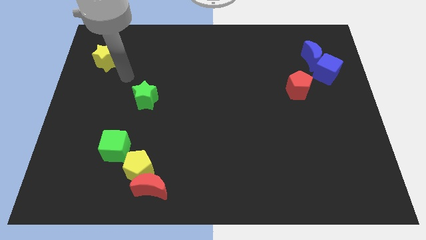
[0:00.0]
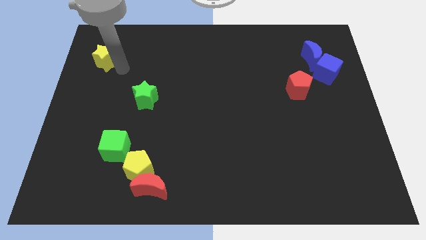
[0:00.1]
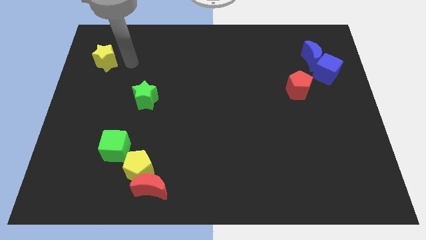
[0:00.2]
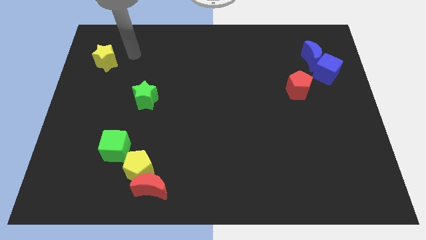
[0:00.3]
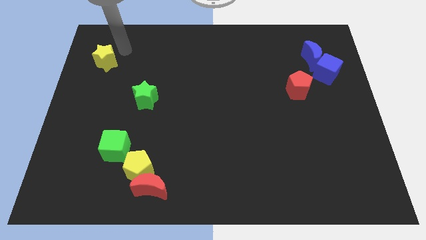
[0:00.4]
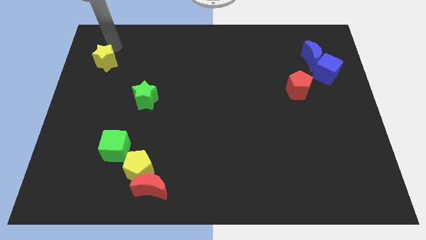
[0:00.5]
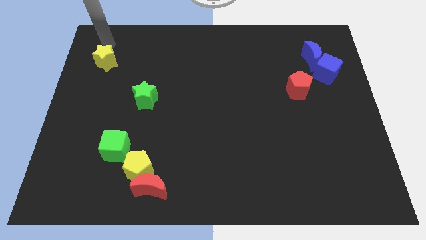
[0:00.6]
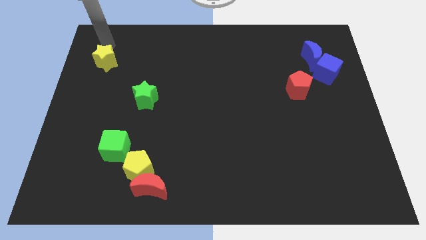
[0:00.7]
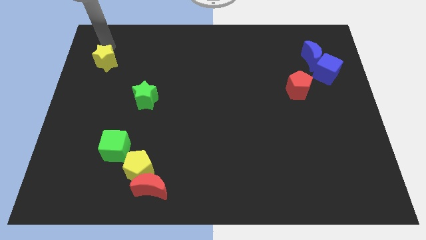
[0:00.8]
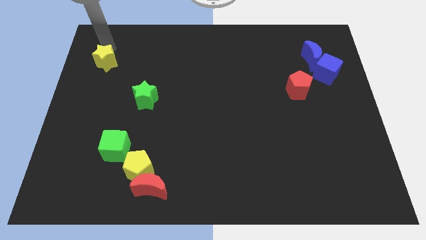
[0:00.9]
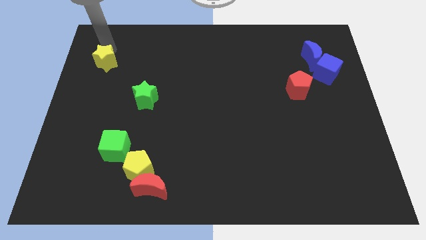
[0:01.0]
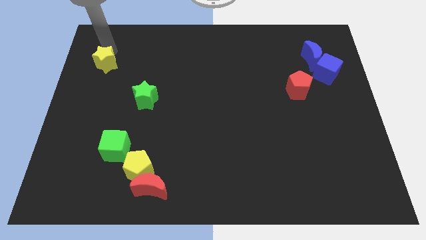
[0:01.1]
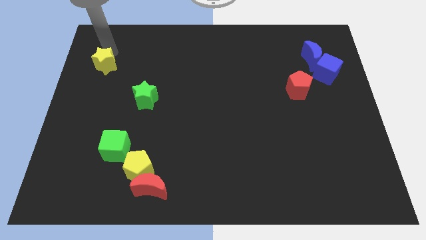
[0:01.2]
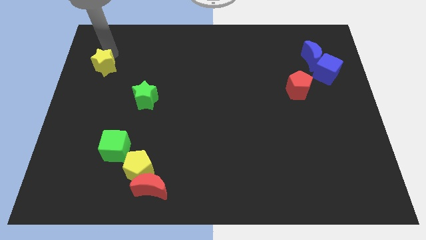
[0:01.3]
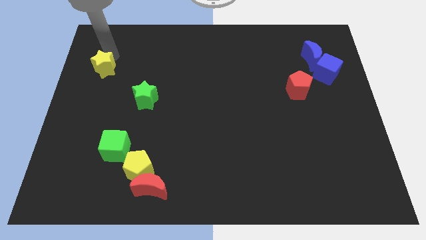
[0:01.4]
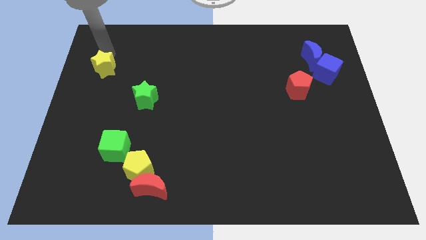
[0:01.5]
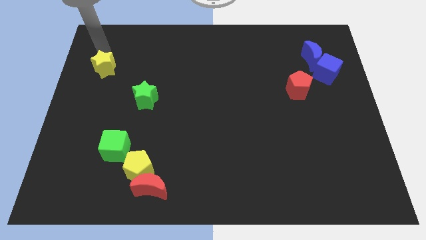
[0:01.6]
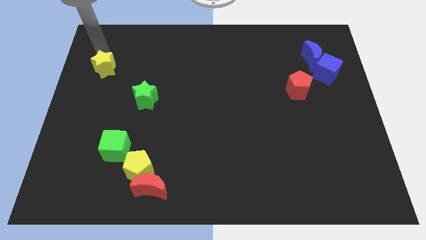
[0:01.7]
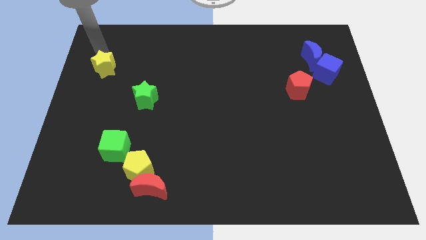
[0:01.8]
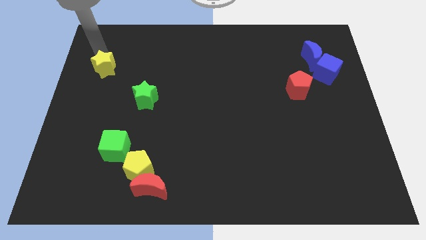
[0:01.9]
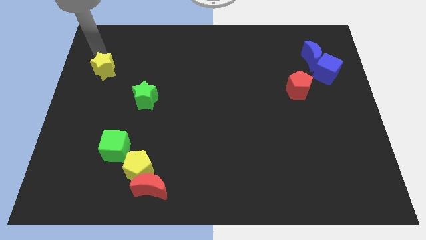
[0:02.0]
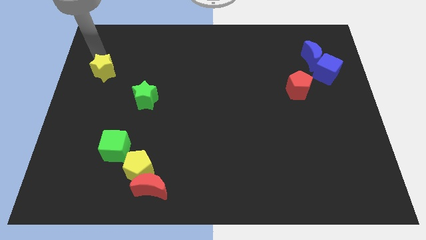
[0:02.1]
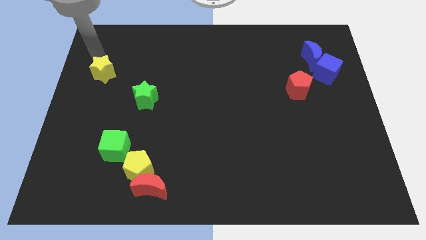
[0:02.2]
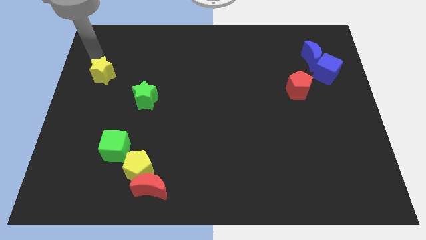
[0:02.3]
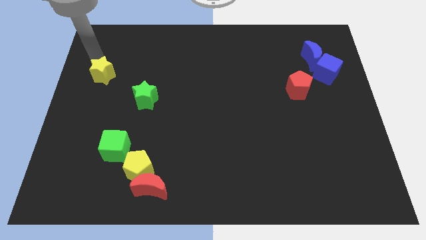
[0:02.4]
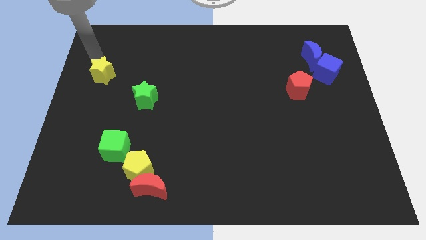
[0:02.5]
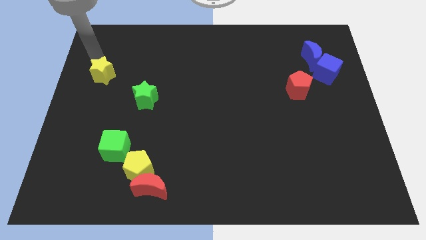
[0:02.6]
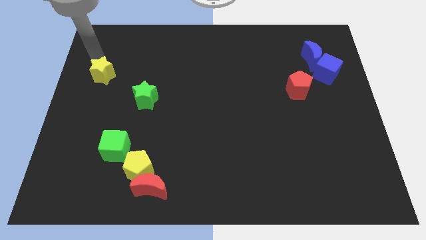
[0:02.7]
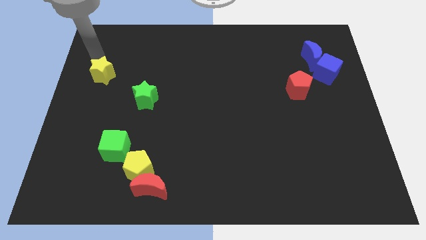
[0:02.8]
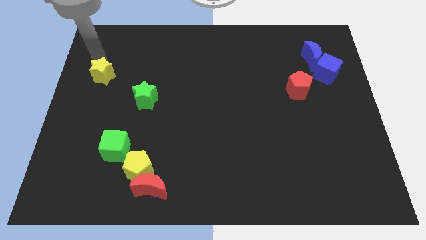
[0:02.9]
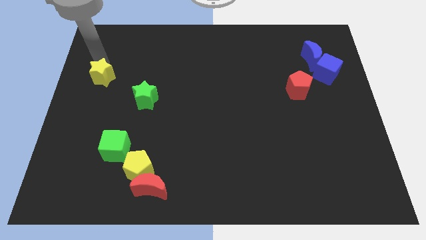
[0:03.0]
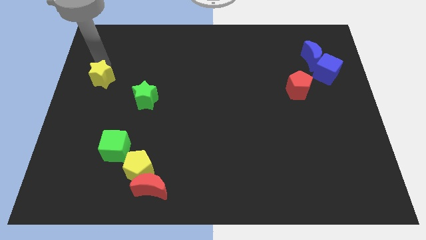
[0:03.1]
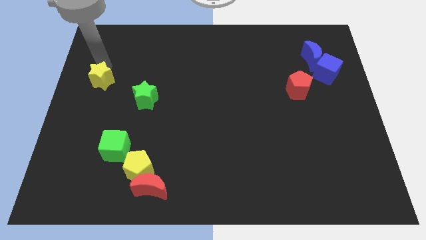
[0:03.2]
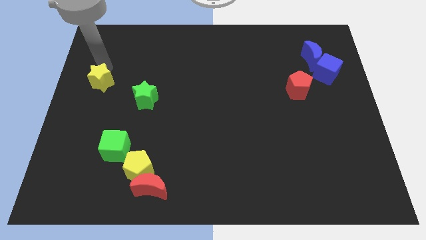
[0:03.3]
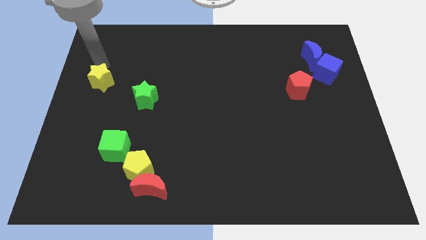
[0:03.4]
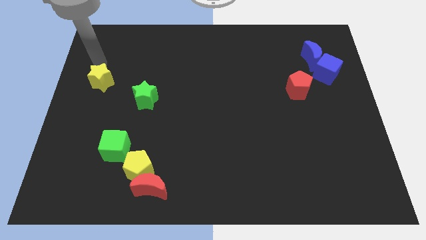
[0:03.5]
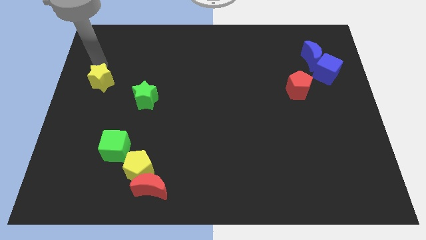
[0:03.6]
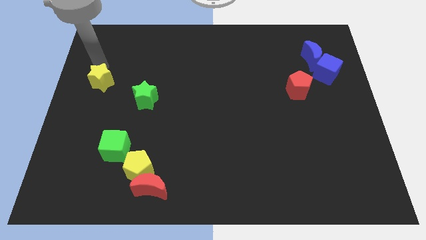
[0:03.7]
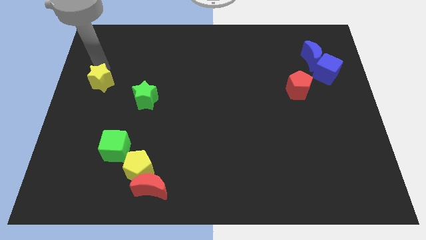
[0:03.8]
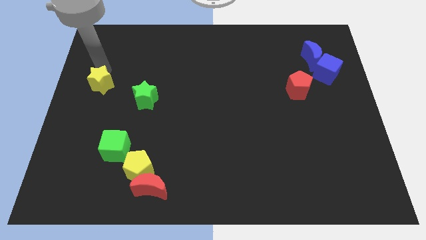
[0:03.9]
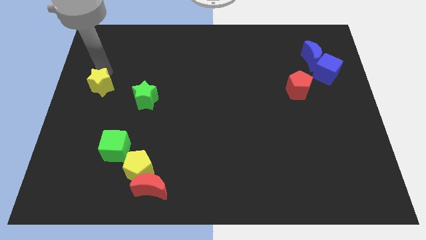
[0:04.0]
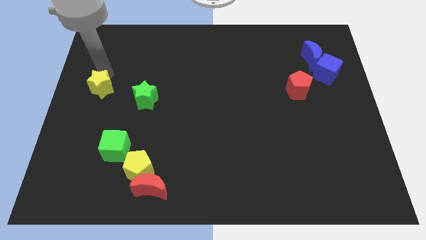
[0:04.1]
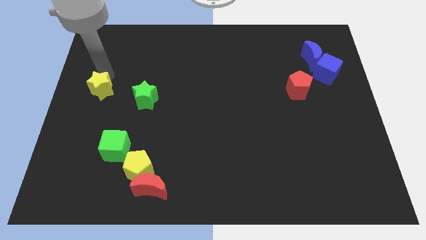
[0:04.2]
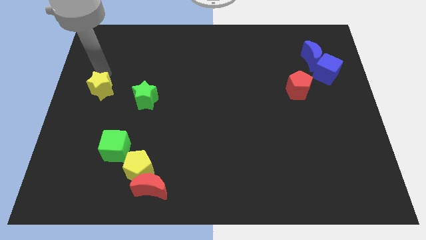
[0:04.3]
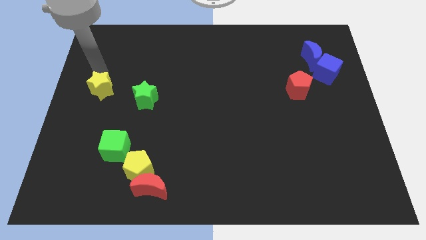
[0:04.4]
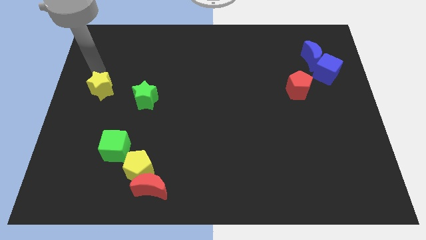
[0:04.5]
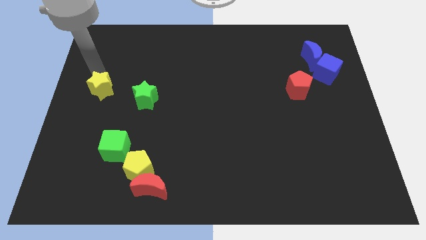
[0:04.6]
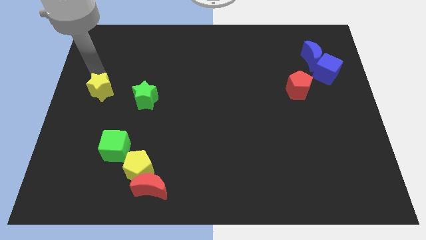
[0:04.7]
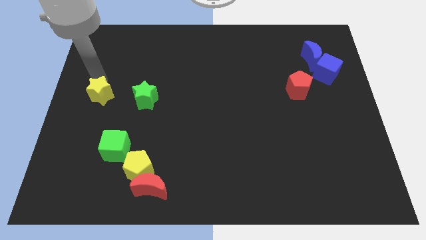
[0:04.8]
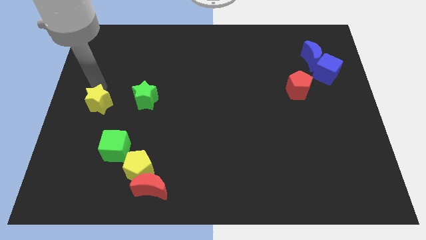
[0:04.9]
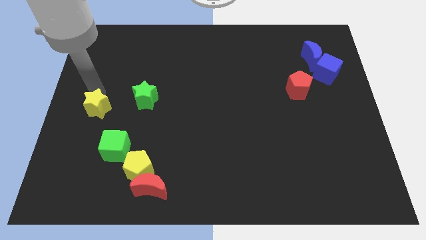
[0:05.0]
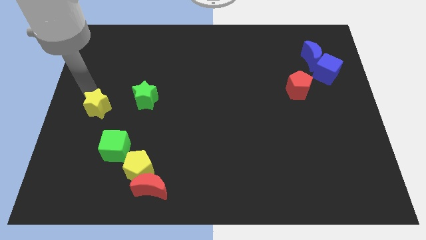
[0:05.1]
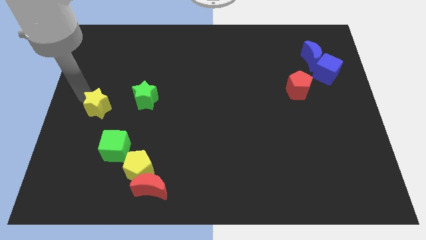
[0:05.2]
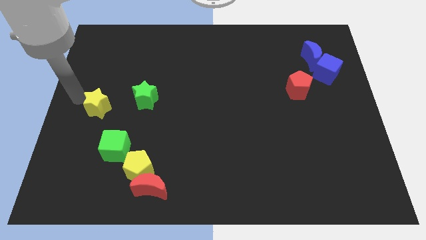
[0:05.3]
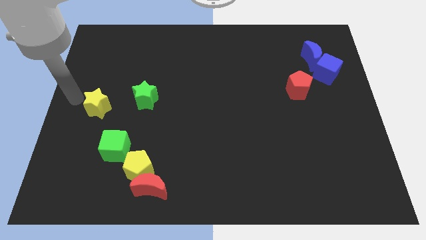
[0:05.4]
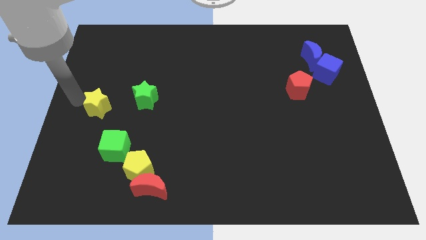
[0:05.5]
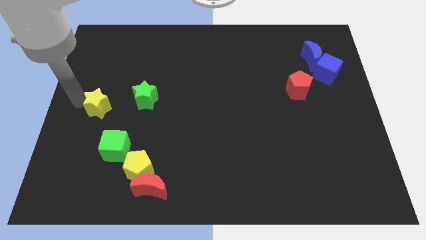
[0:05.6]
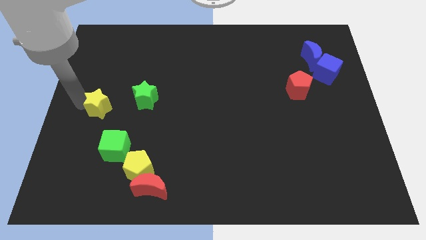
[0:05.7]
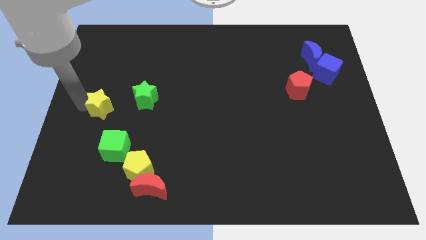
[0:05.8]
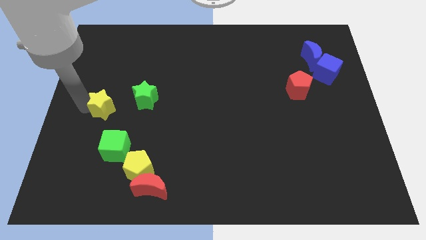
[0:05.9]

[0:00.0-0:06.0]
put the yellow star diagonally down and to the left of the green star

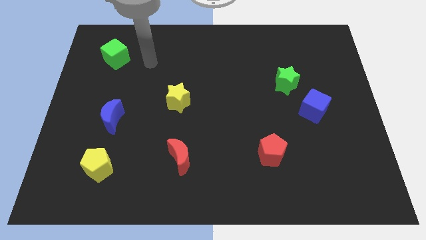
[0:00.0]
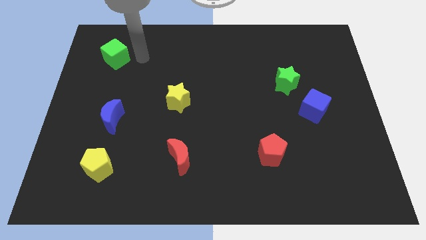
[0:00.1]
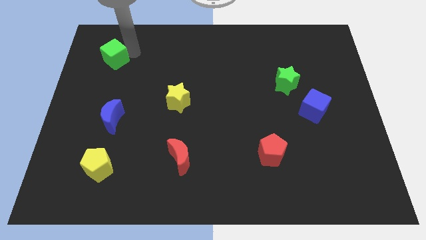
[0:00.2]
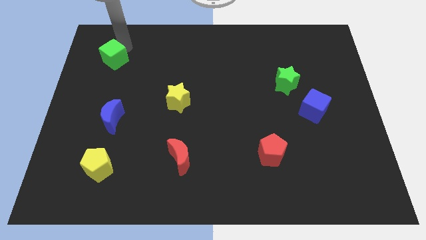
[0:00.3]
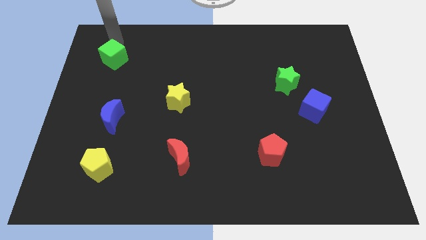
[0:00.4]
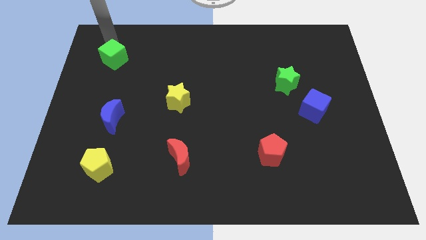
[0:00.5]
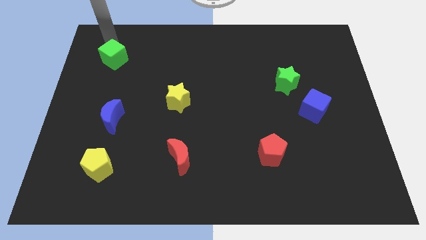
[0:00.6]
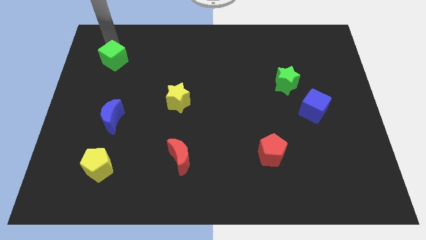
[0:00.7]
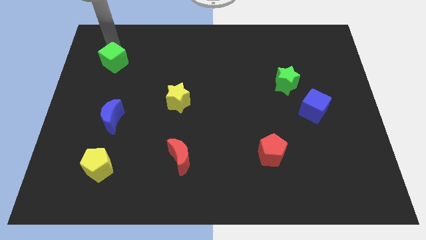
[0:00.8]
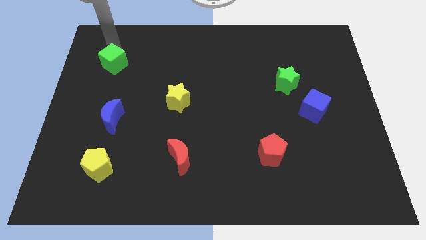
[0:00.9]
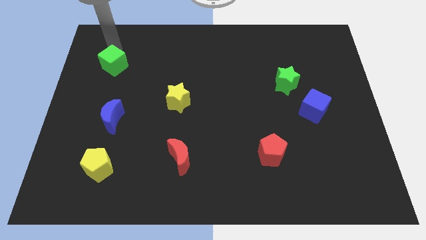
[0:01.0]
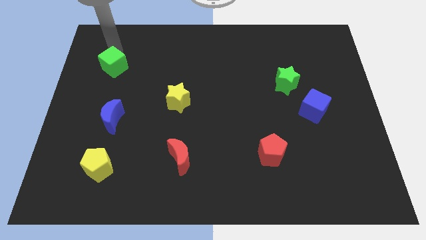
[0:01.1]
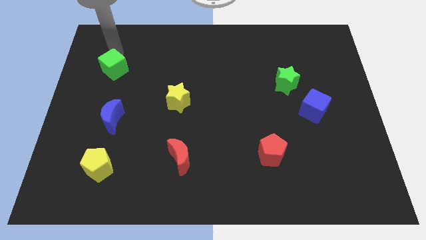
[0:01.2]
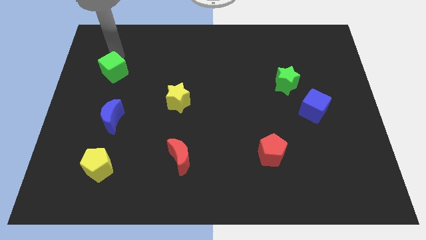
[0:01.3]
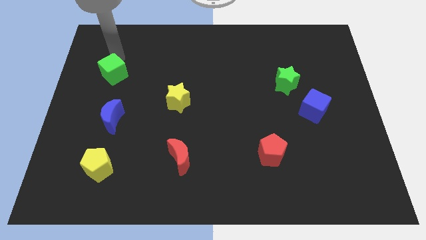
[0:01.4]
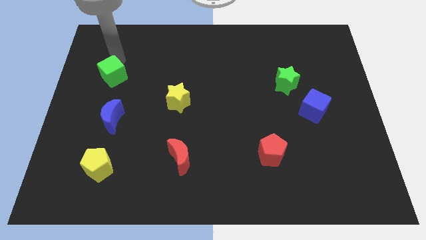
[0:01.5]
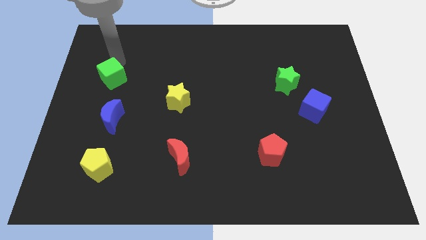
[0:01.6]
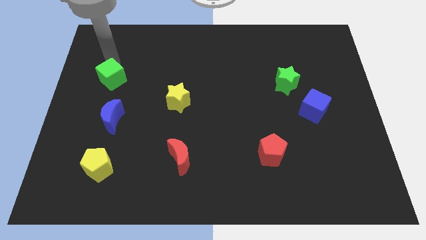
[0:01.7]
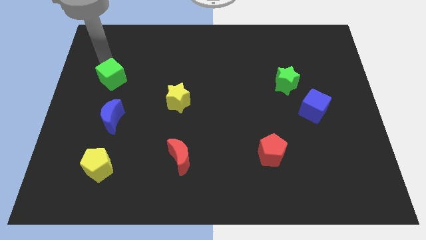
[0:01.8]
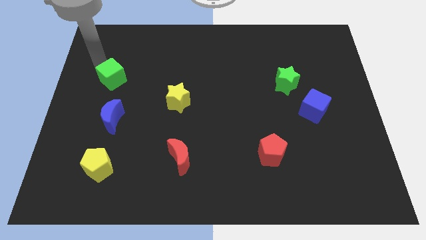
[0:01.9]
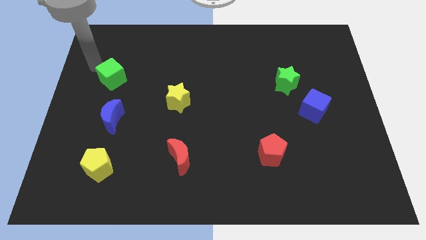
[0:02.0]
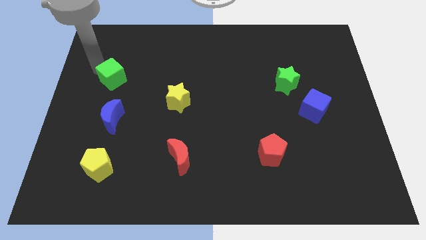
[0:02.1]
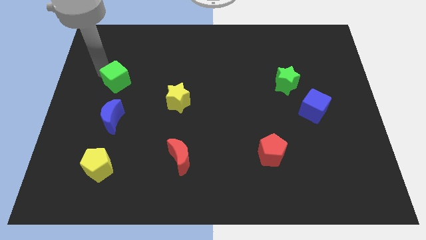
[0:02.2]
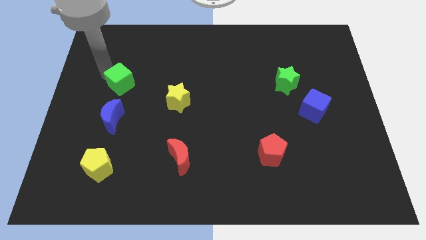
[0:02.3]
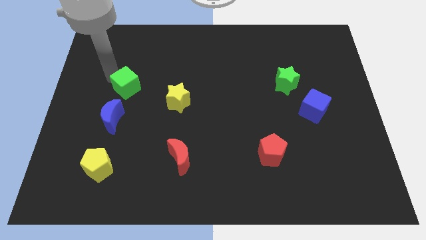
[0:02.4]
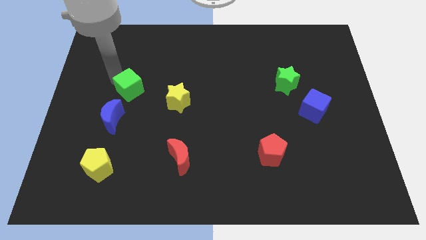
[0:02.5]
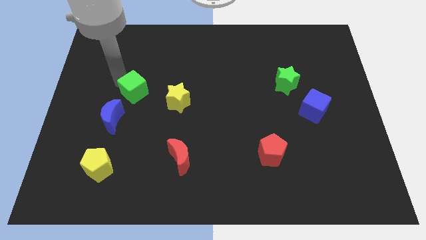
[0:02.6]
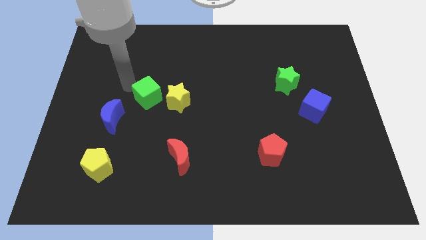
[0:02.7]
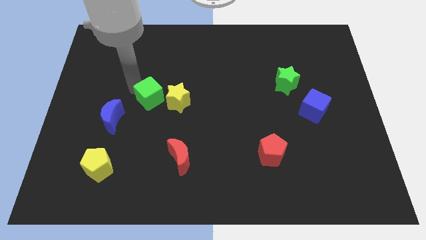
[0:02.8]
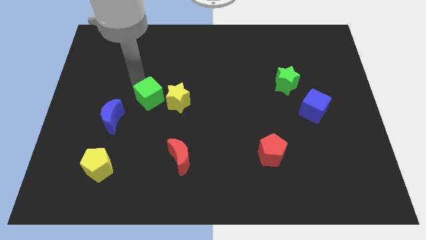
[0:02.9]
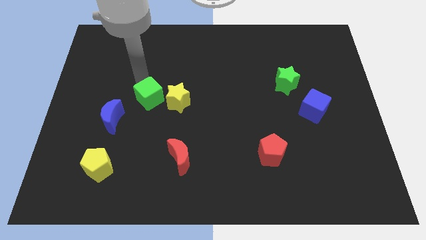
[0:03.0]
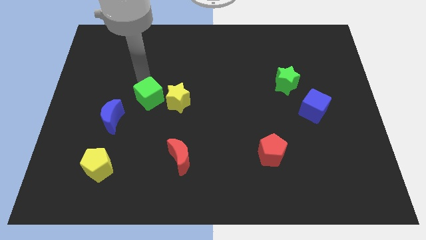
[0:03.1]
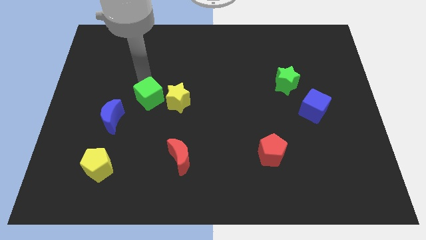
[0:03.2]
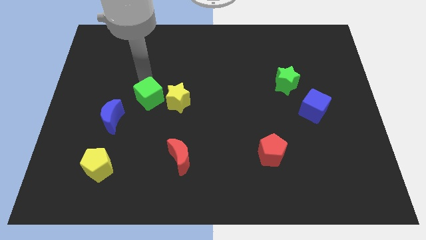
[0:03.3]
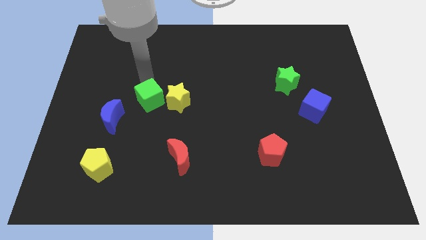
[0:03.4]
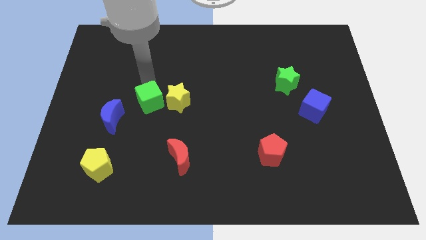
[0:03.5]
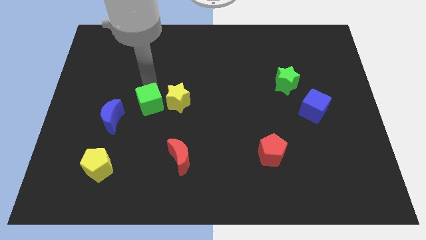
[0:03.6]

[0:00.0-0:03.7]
push the green cube to the right side of the blue moon
